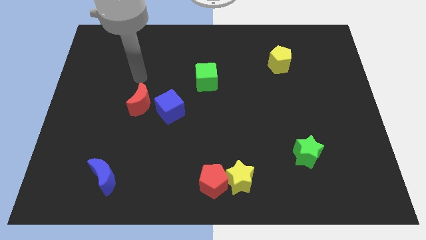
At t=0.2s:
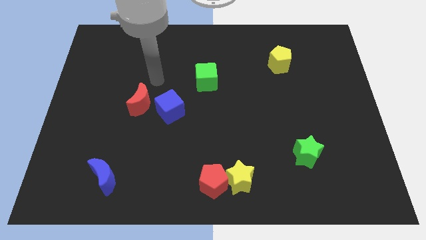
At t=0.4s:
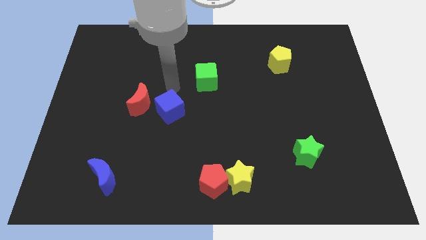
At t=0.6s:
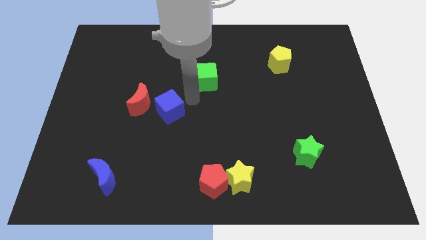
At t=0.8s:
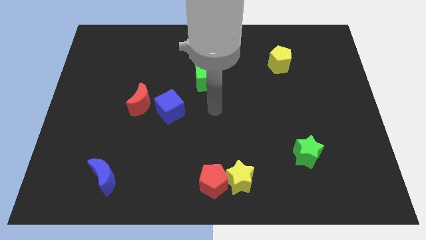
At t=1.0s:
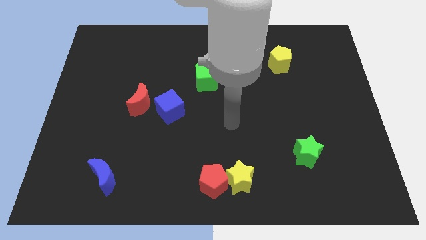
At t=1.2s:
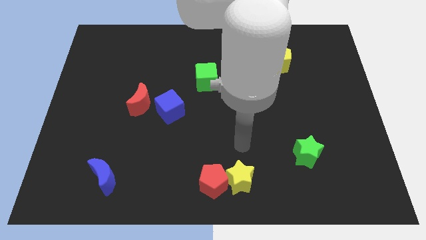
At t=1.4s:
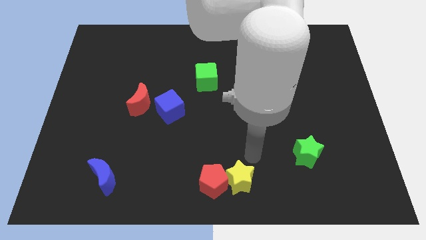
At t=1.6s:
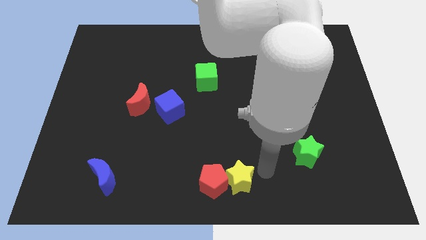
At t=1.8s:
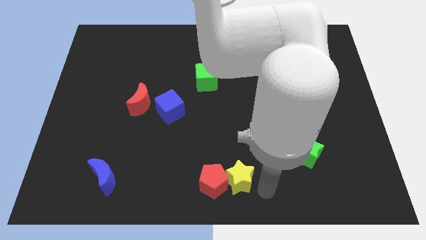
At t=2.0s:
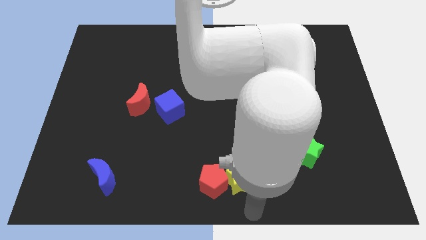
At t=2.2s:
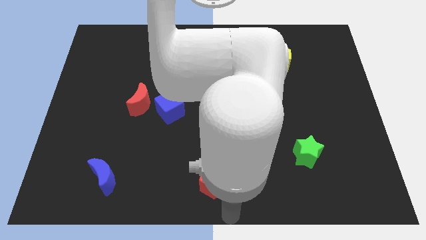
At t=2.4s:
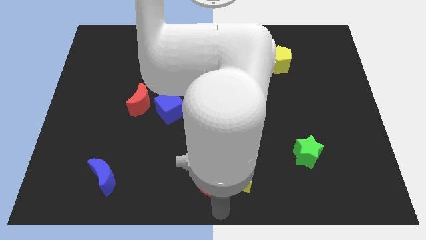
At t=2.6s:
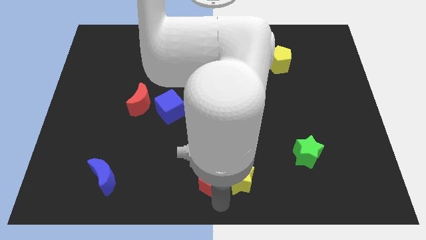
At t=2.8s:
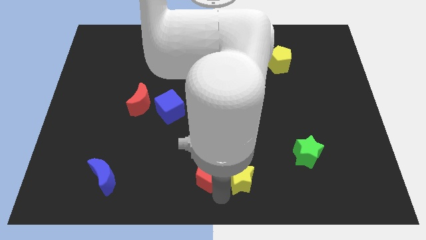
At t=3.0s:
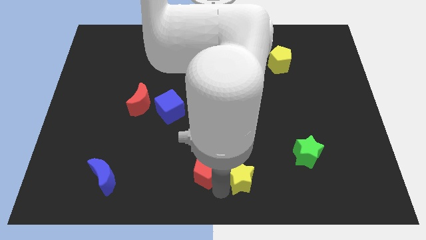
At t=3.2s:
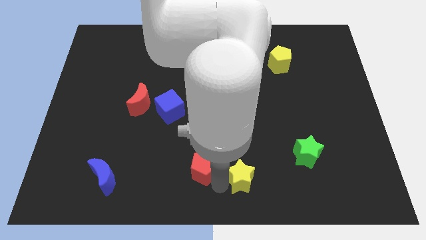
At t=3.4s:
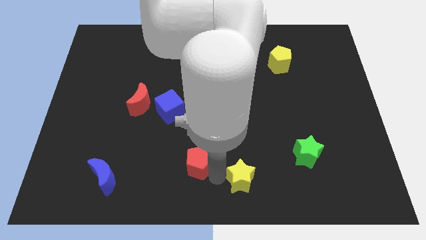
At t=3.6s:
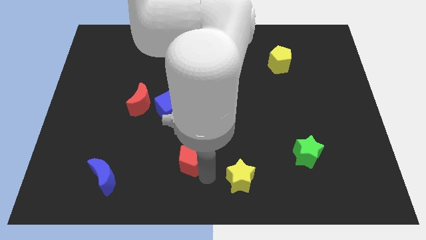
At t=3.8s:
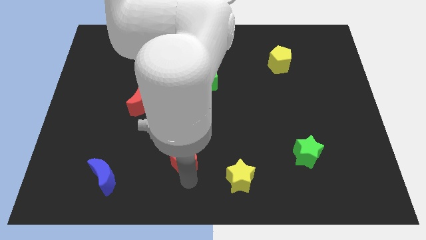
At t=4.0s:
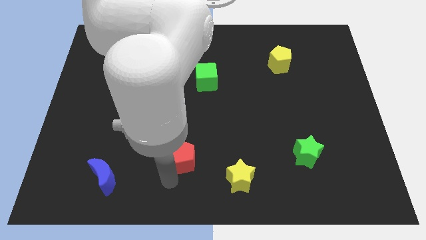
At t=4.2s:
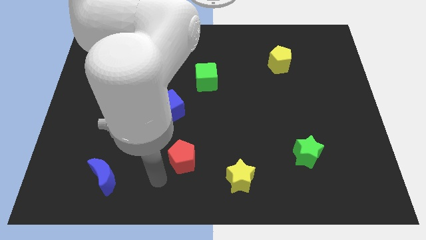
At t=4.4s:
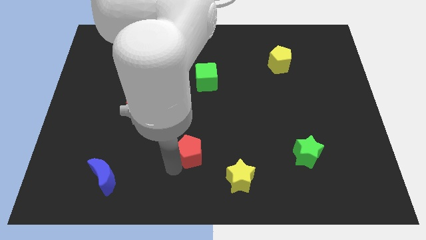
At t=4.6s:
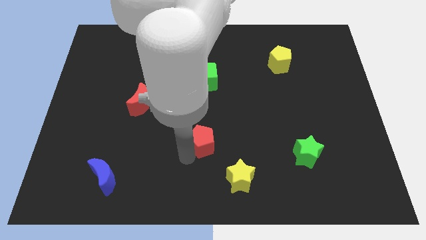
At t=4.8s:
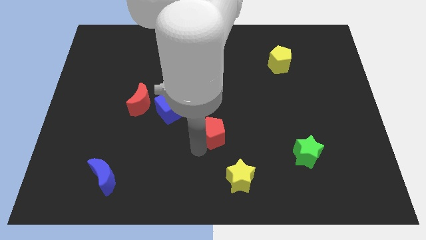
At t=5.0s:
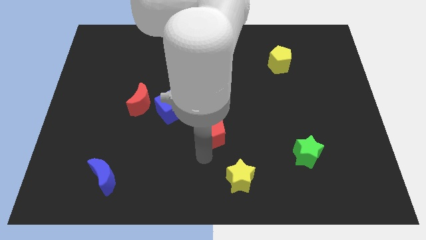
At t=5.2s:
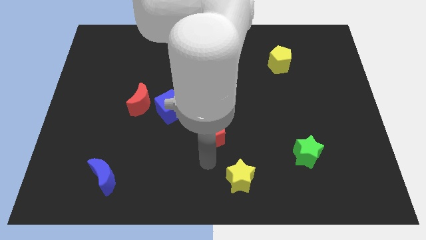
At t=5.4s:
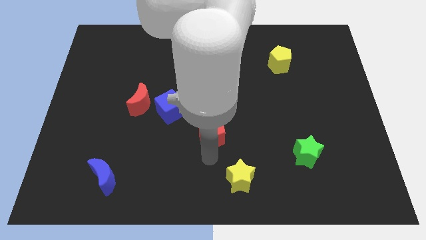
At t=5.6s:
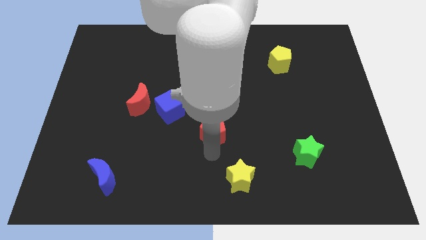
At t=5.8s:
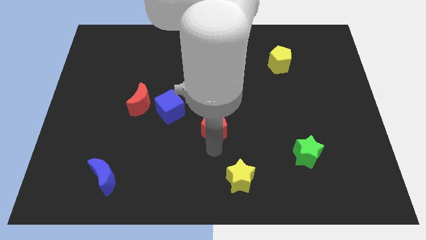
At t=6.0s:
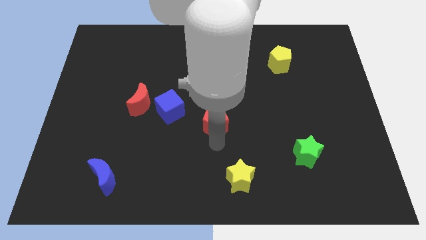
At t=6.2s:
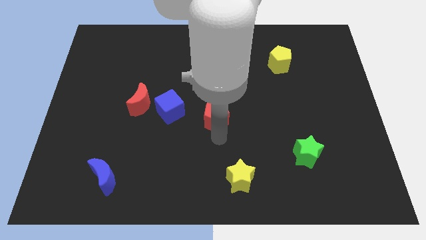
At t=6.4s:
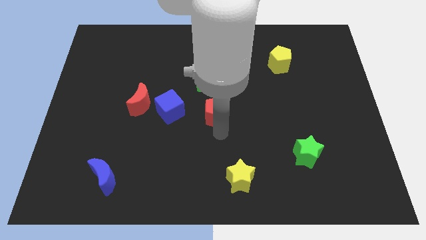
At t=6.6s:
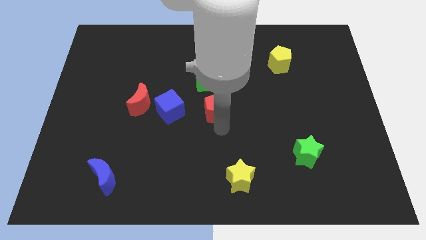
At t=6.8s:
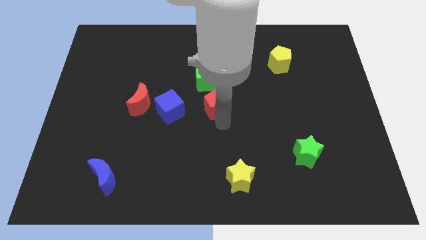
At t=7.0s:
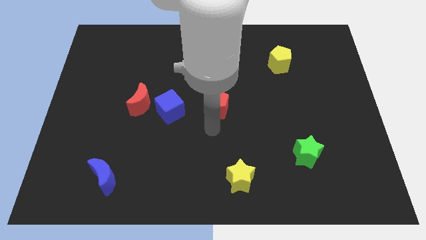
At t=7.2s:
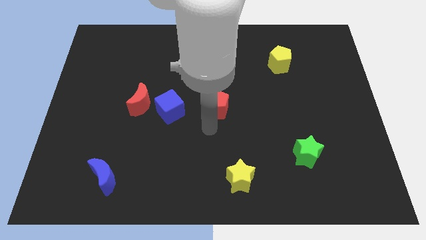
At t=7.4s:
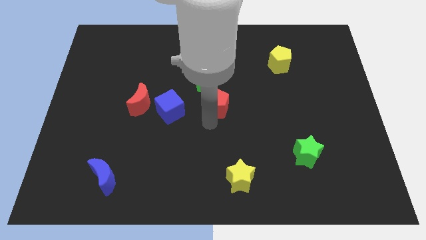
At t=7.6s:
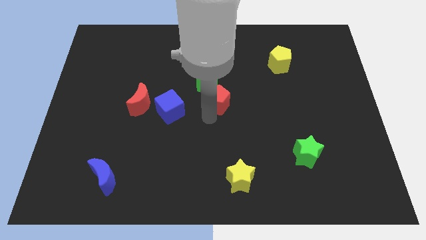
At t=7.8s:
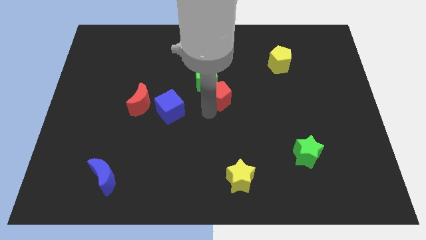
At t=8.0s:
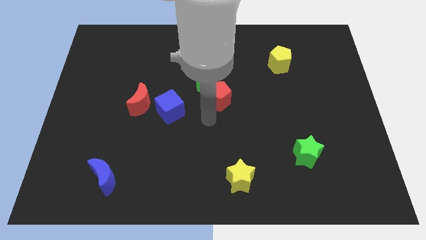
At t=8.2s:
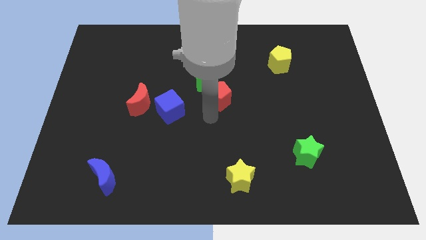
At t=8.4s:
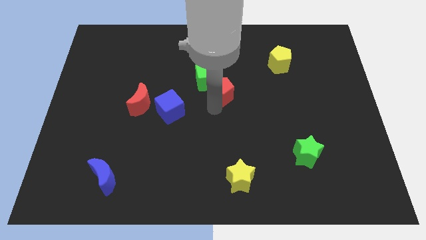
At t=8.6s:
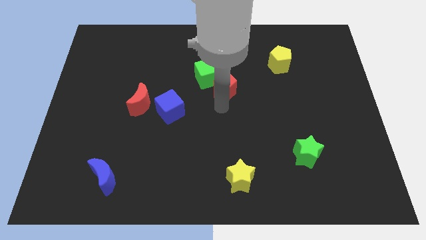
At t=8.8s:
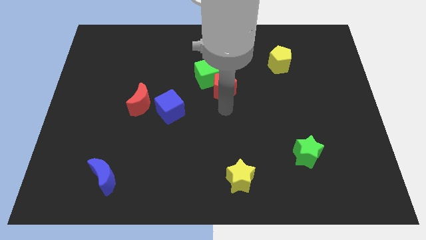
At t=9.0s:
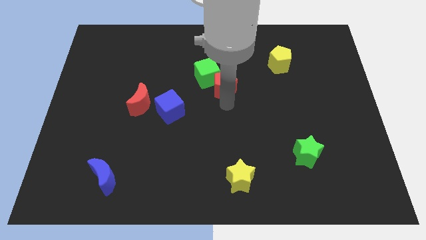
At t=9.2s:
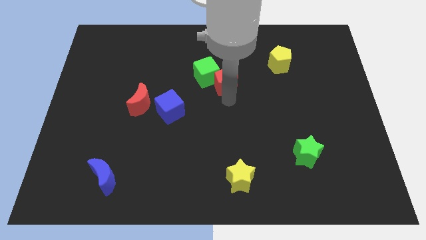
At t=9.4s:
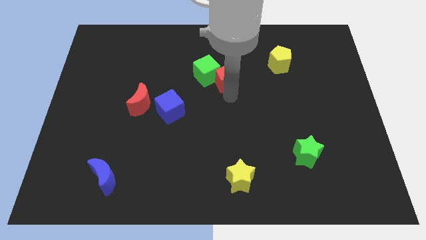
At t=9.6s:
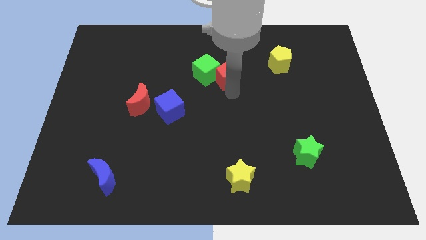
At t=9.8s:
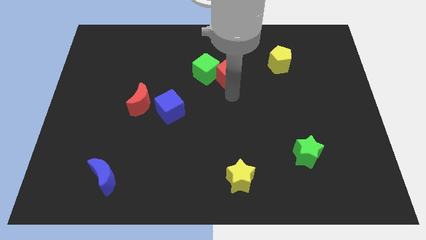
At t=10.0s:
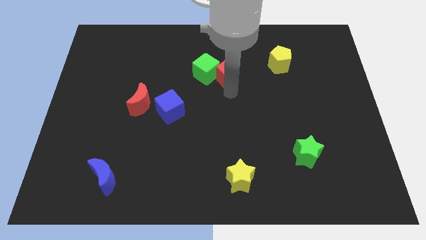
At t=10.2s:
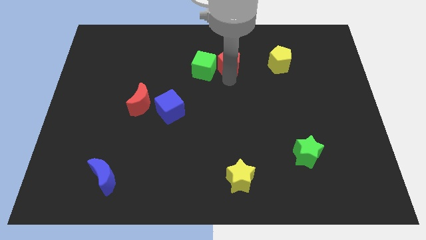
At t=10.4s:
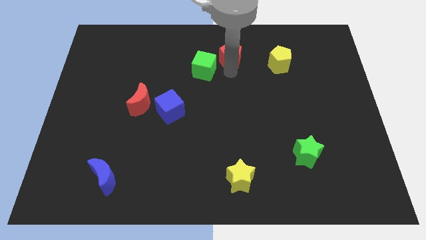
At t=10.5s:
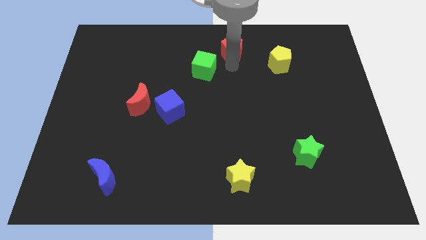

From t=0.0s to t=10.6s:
slide the red pentagon to the top side

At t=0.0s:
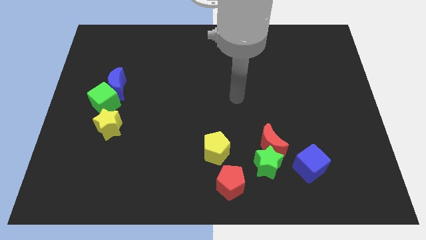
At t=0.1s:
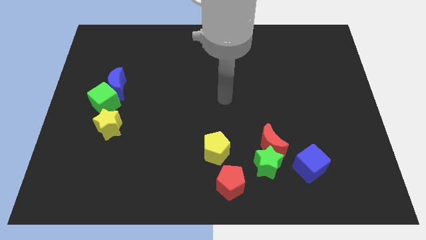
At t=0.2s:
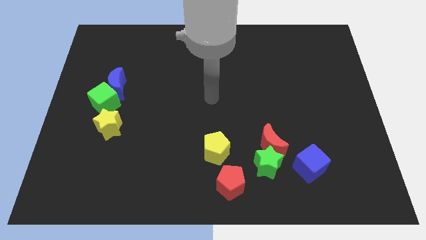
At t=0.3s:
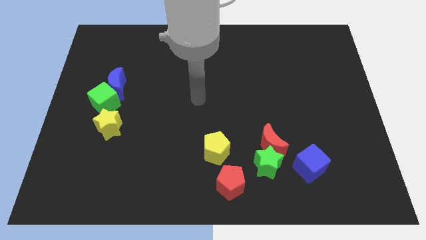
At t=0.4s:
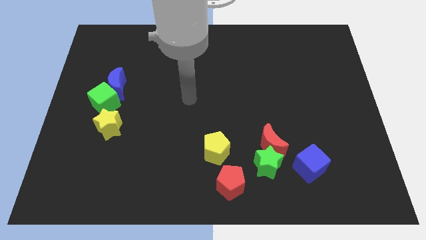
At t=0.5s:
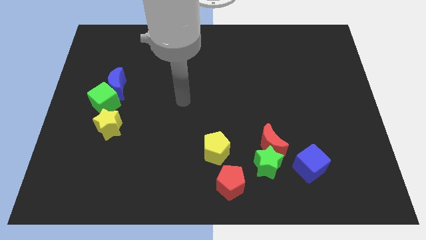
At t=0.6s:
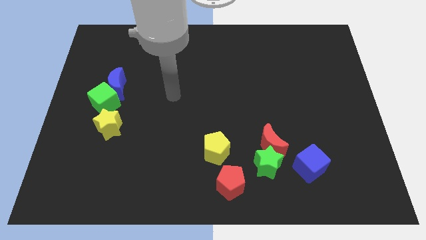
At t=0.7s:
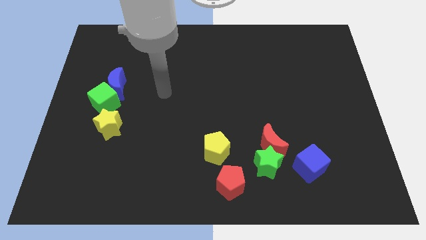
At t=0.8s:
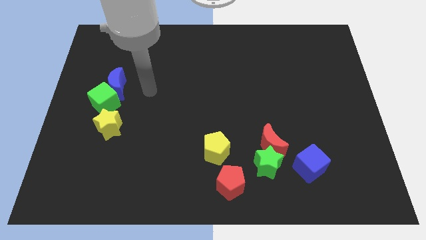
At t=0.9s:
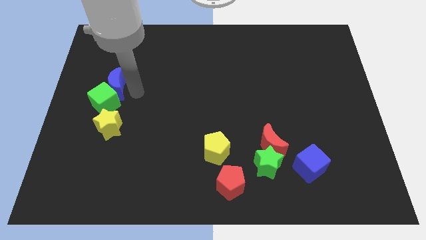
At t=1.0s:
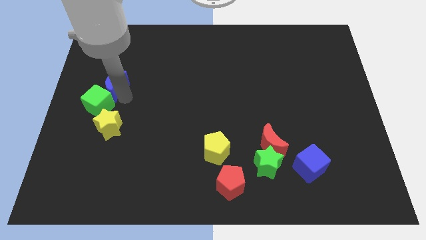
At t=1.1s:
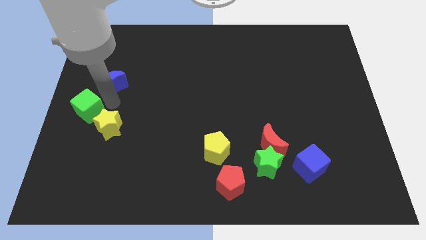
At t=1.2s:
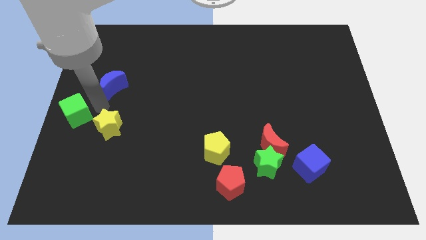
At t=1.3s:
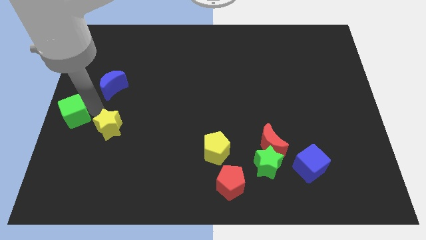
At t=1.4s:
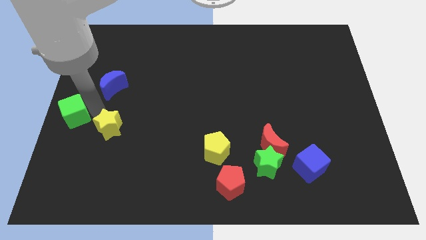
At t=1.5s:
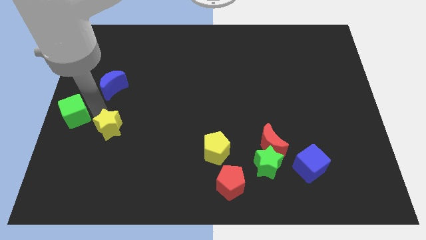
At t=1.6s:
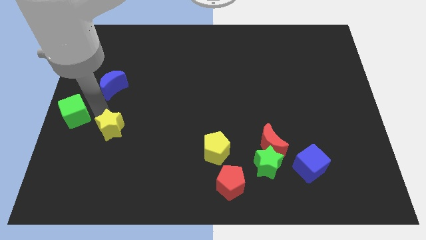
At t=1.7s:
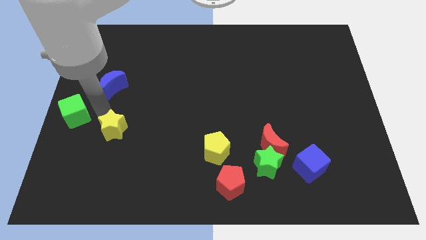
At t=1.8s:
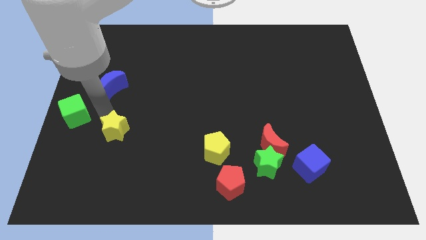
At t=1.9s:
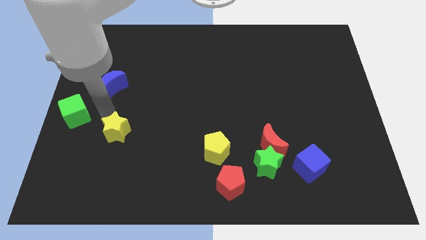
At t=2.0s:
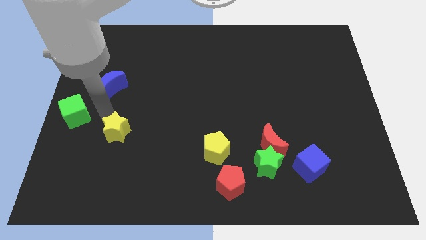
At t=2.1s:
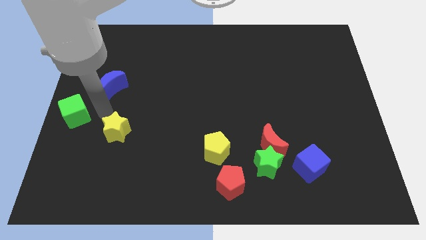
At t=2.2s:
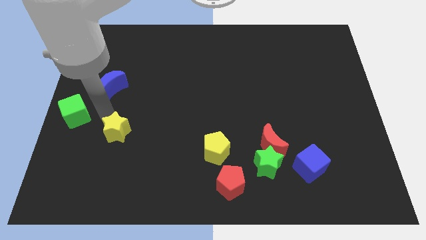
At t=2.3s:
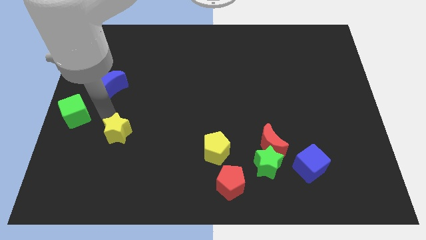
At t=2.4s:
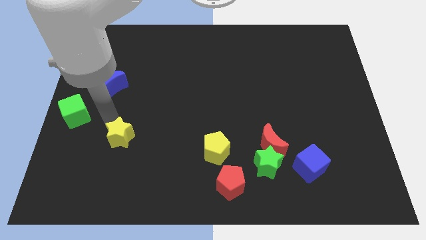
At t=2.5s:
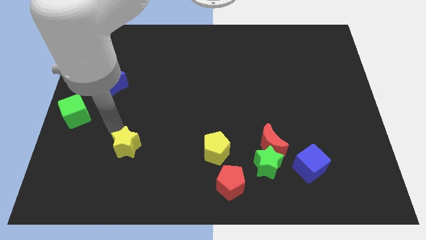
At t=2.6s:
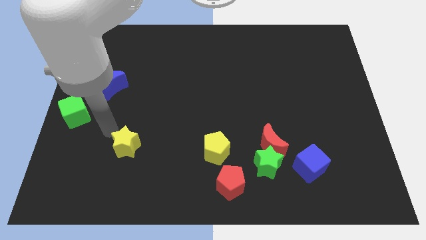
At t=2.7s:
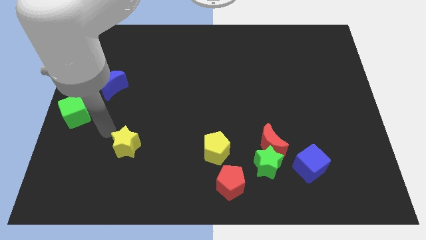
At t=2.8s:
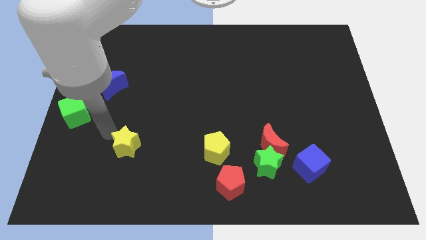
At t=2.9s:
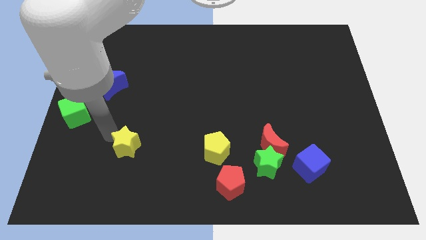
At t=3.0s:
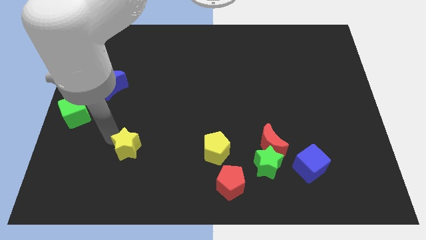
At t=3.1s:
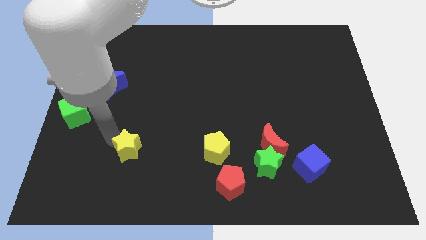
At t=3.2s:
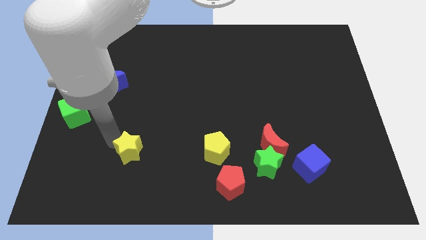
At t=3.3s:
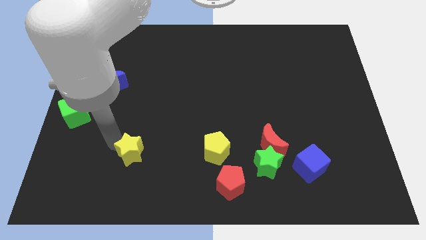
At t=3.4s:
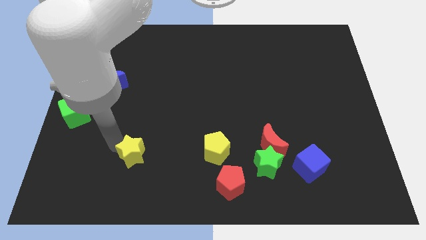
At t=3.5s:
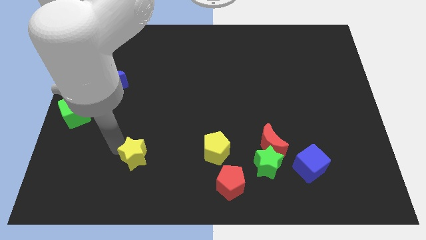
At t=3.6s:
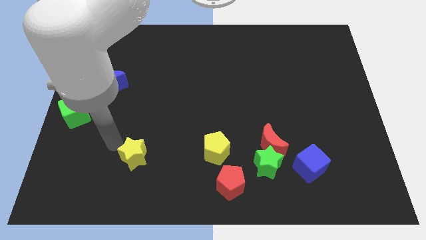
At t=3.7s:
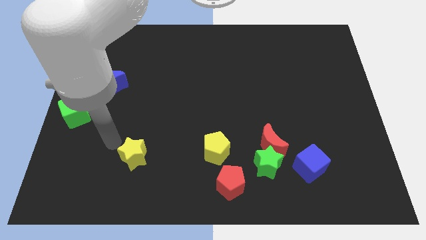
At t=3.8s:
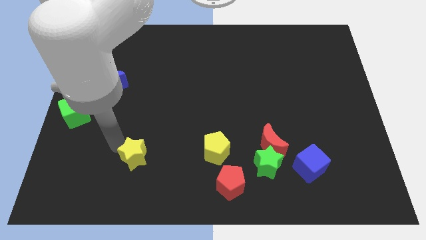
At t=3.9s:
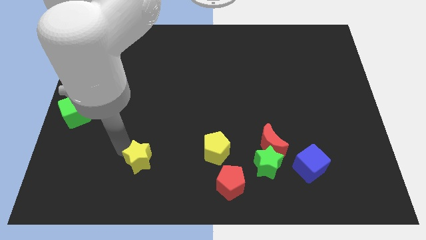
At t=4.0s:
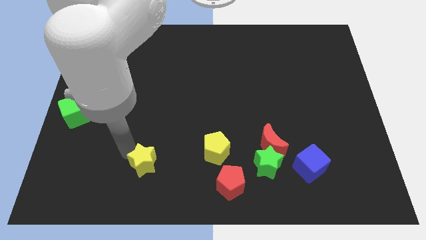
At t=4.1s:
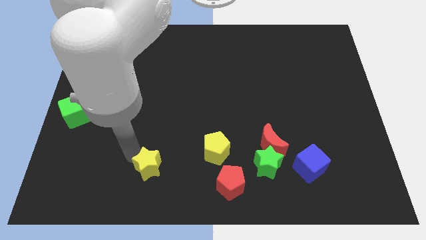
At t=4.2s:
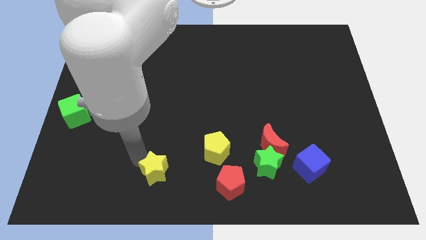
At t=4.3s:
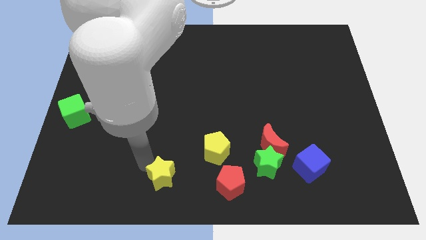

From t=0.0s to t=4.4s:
push the yellow star to the bottom side
